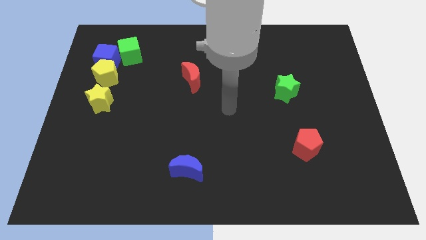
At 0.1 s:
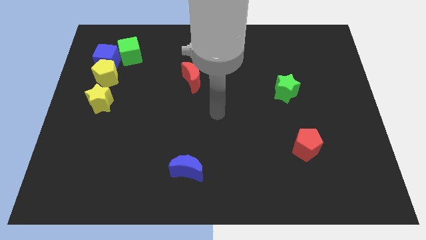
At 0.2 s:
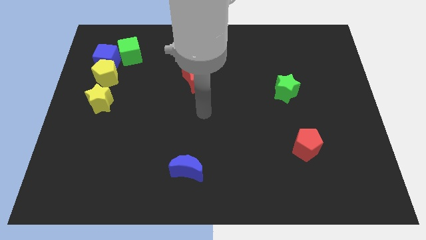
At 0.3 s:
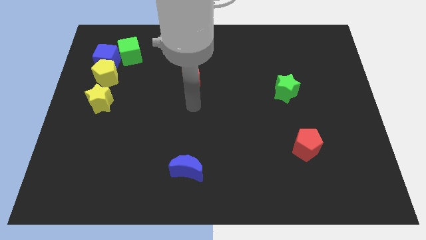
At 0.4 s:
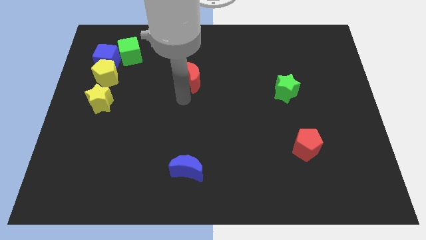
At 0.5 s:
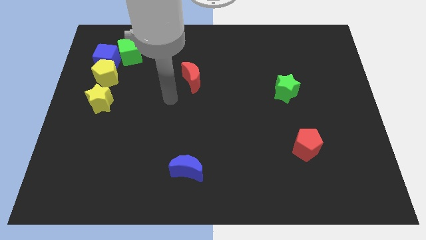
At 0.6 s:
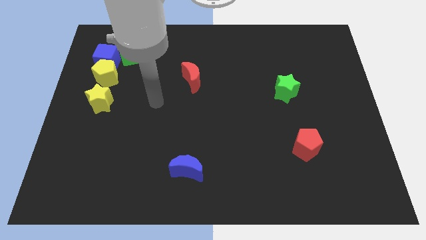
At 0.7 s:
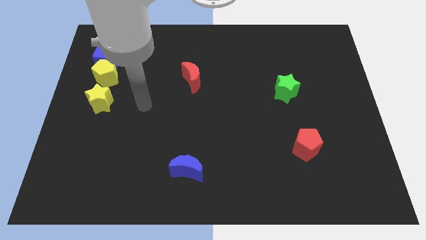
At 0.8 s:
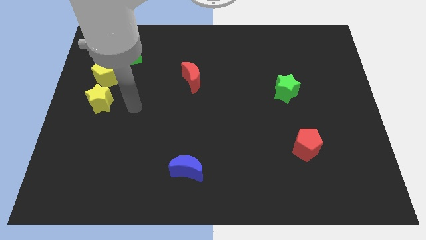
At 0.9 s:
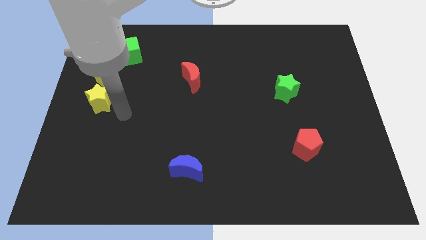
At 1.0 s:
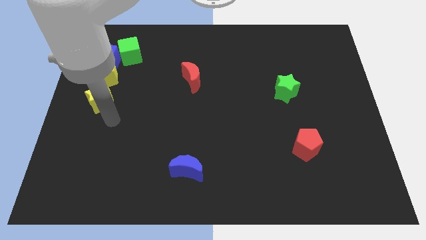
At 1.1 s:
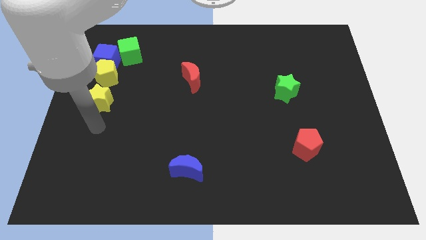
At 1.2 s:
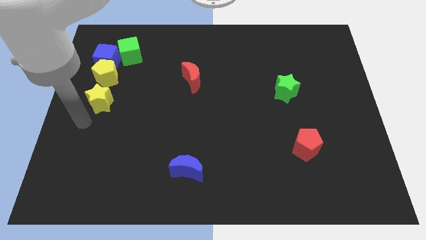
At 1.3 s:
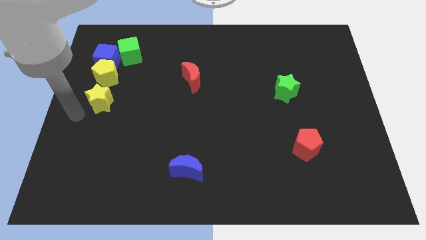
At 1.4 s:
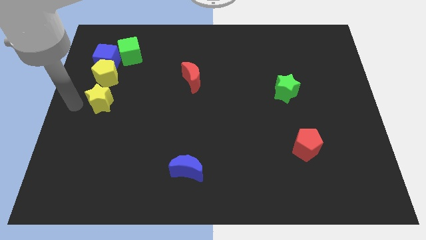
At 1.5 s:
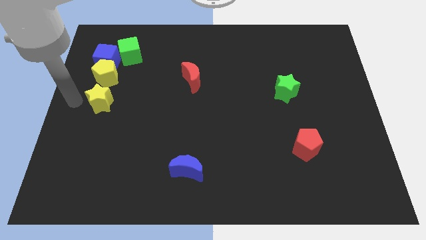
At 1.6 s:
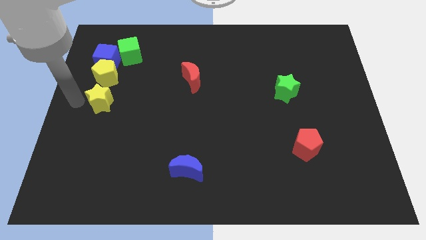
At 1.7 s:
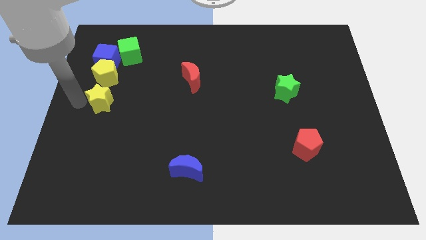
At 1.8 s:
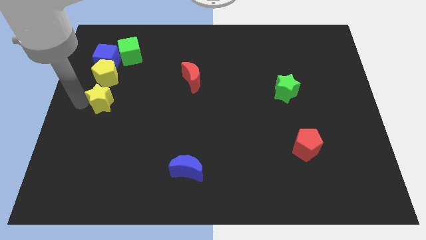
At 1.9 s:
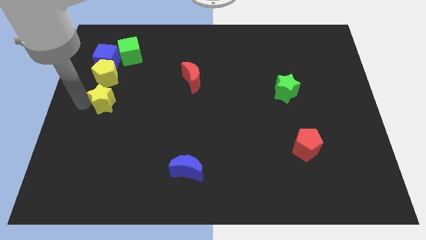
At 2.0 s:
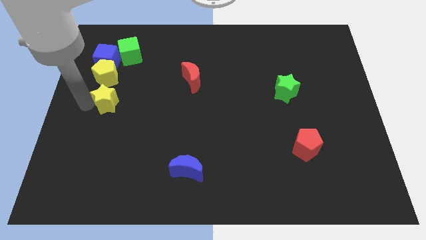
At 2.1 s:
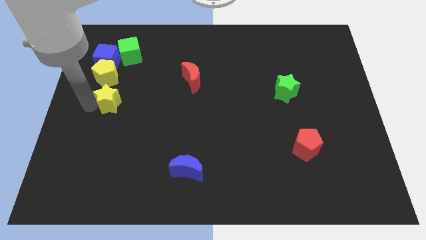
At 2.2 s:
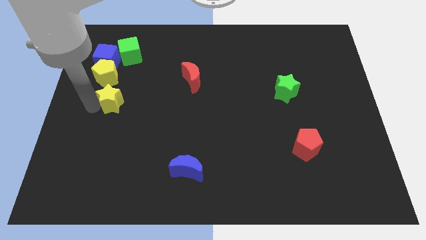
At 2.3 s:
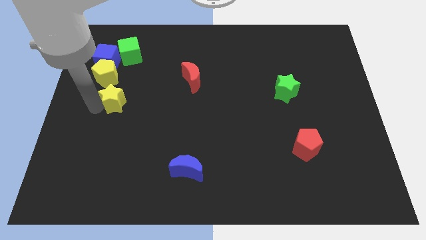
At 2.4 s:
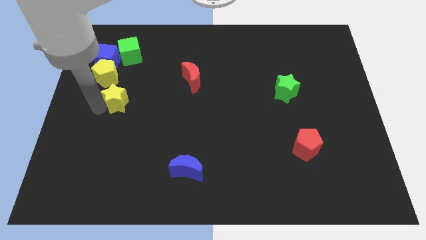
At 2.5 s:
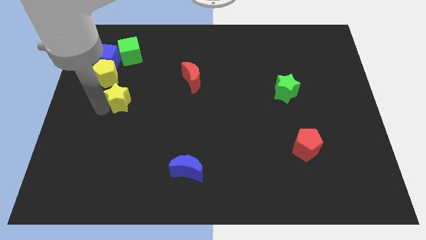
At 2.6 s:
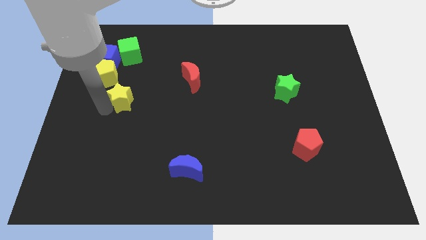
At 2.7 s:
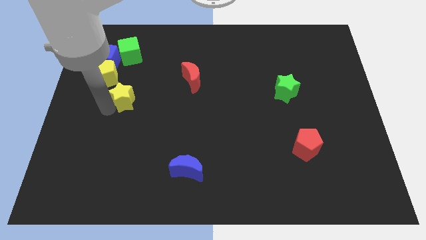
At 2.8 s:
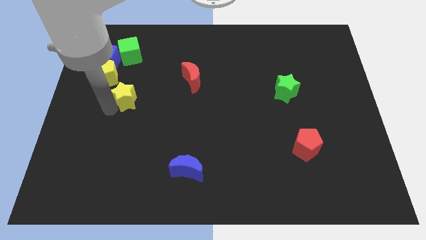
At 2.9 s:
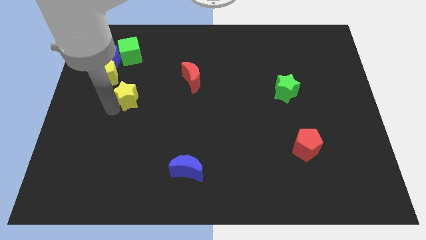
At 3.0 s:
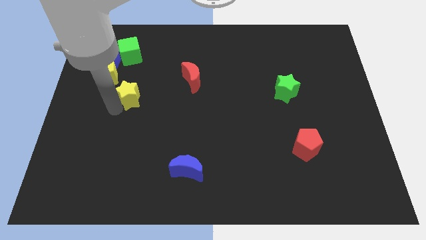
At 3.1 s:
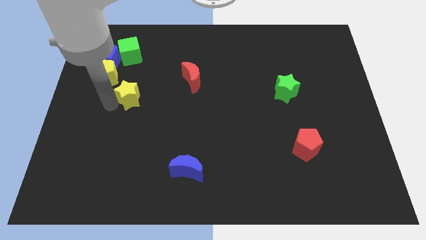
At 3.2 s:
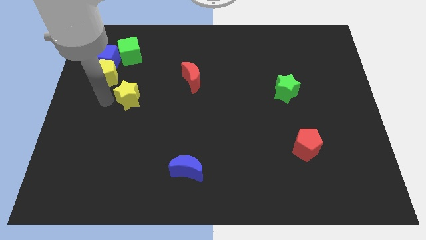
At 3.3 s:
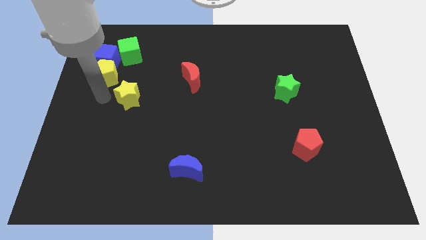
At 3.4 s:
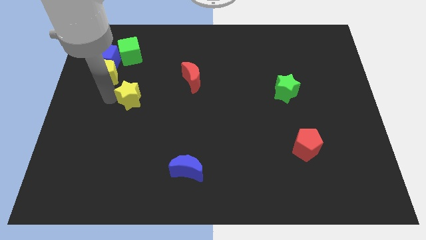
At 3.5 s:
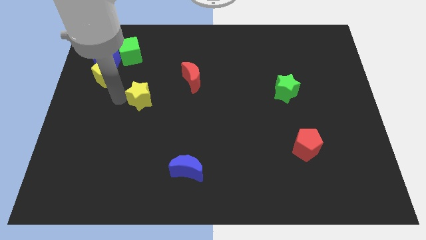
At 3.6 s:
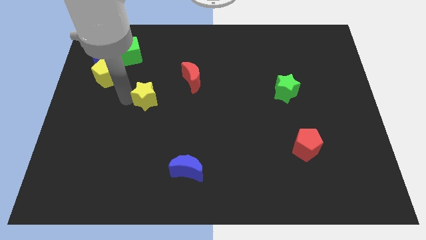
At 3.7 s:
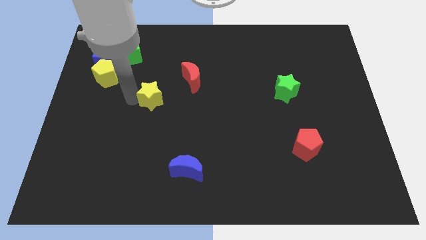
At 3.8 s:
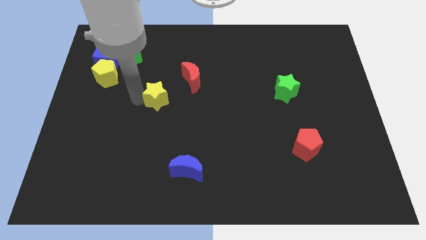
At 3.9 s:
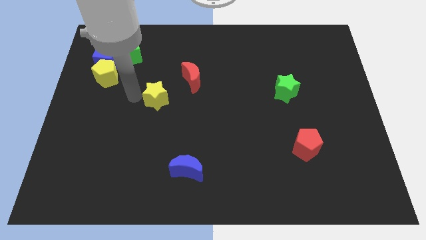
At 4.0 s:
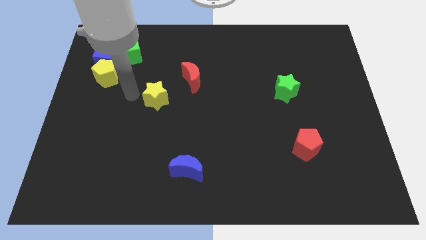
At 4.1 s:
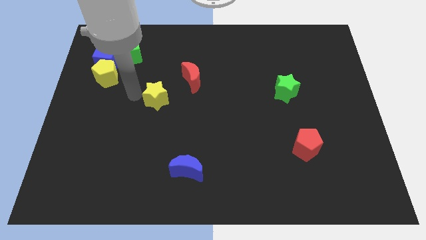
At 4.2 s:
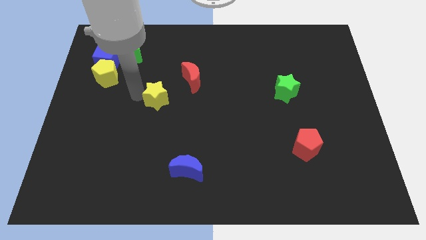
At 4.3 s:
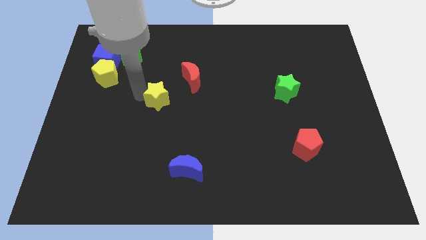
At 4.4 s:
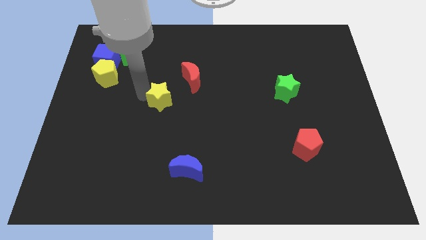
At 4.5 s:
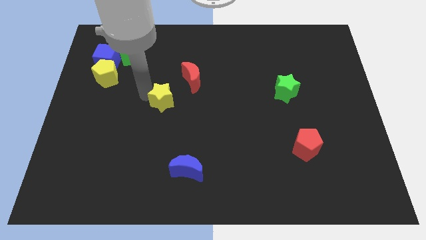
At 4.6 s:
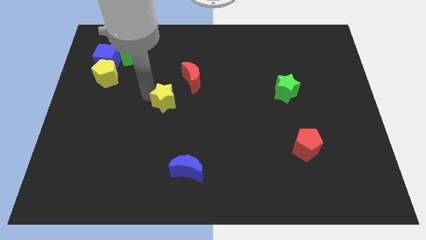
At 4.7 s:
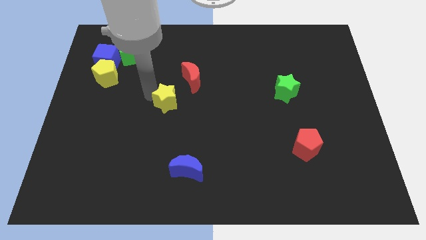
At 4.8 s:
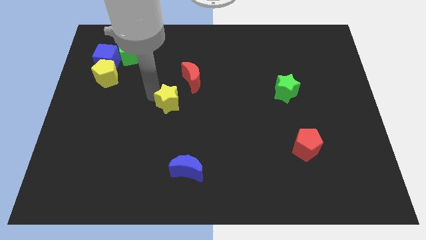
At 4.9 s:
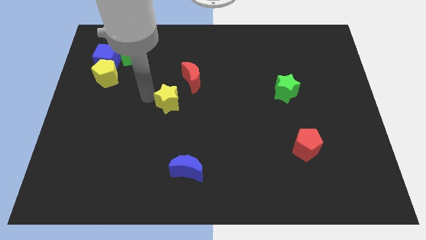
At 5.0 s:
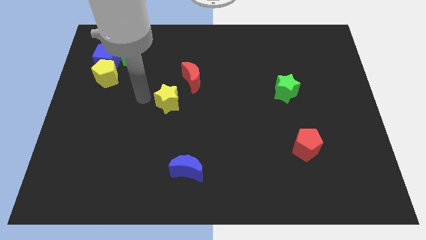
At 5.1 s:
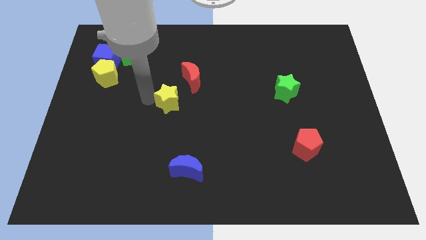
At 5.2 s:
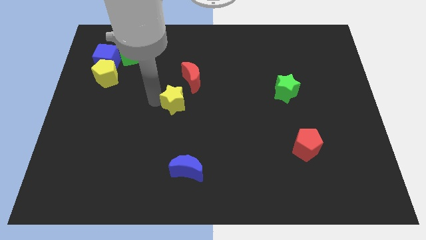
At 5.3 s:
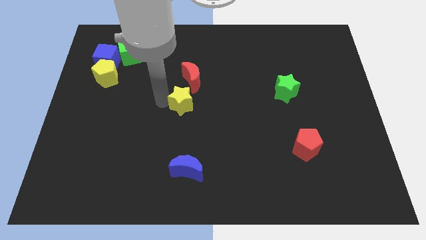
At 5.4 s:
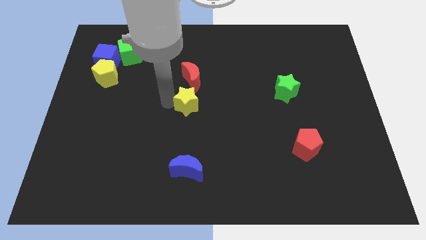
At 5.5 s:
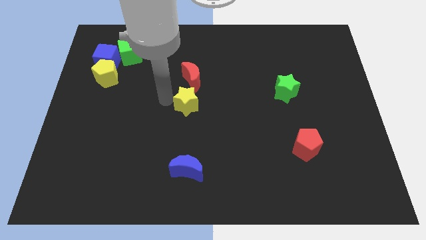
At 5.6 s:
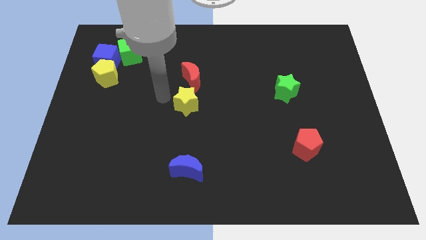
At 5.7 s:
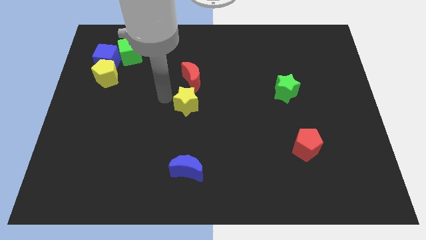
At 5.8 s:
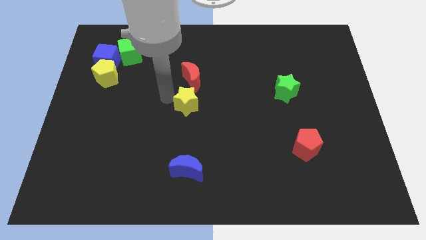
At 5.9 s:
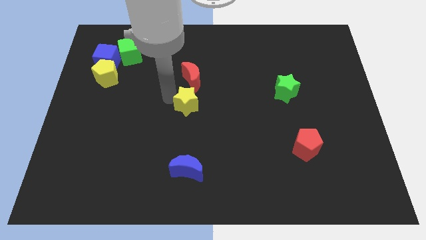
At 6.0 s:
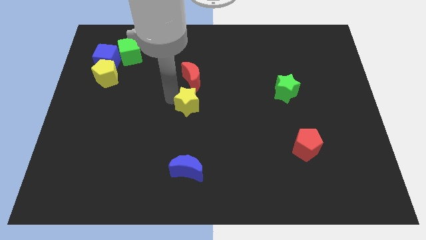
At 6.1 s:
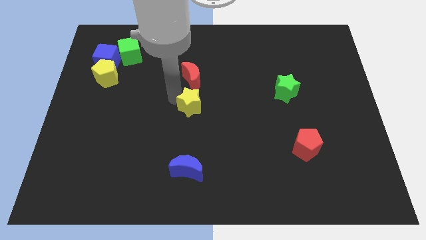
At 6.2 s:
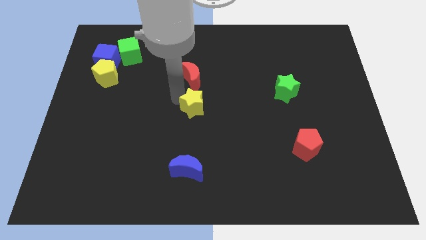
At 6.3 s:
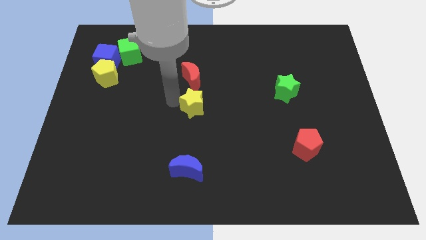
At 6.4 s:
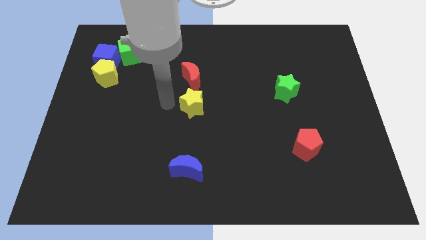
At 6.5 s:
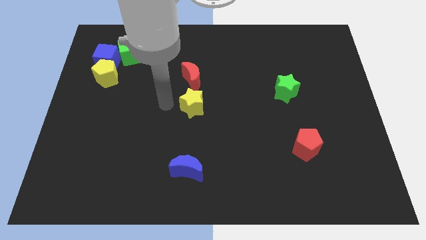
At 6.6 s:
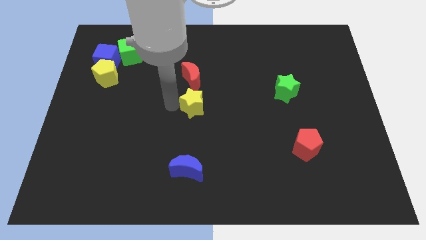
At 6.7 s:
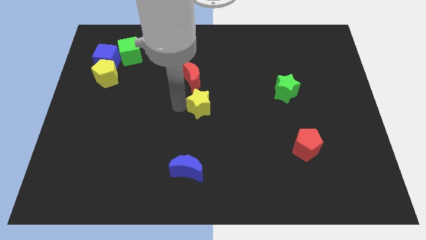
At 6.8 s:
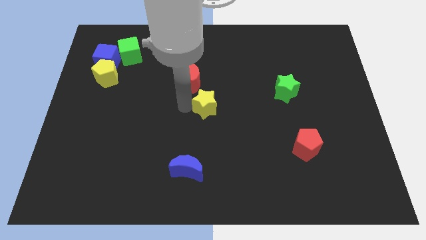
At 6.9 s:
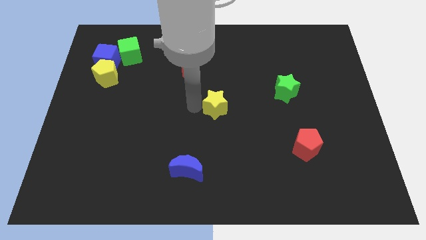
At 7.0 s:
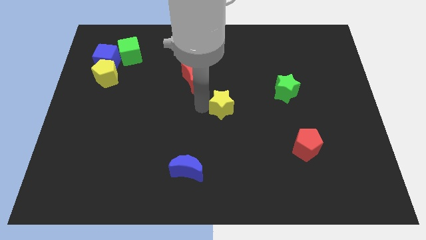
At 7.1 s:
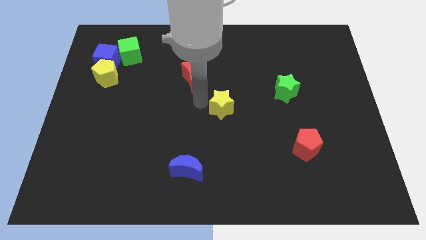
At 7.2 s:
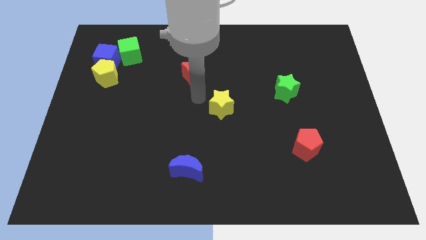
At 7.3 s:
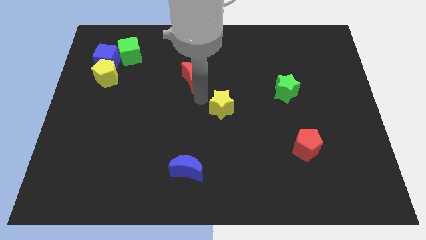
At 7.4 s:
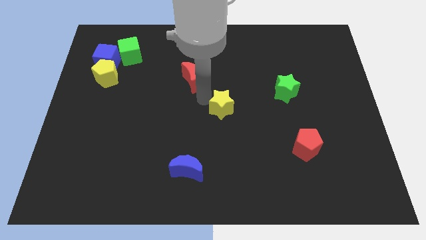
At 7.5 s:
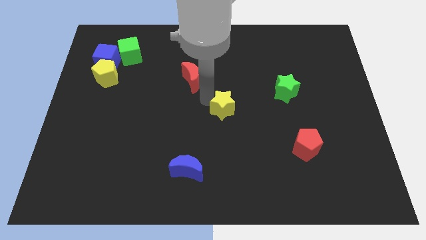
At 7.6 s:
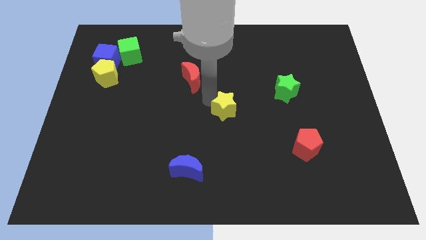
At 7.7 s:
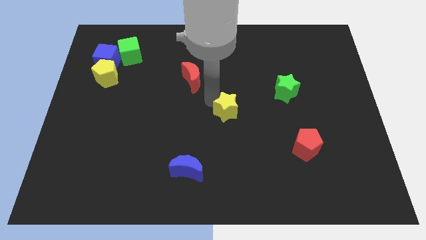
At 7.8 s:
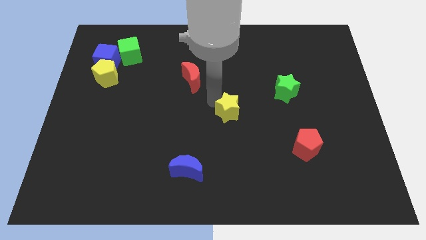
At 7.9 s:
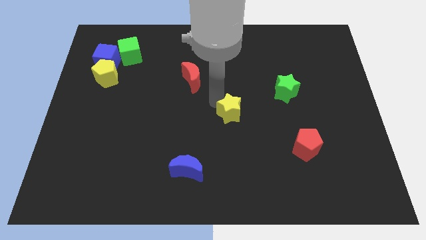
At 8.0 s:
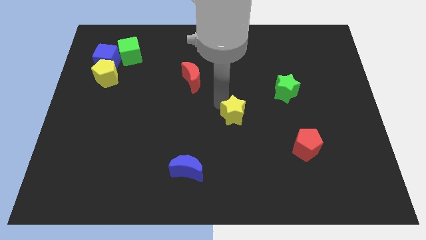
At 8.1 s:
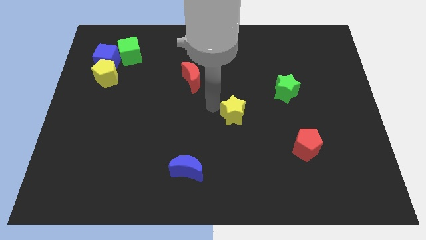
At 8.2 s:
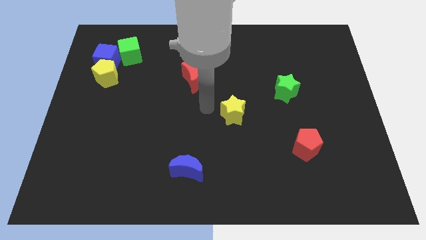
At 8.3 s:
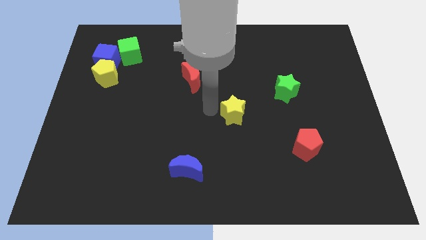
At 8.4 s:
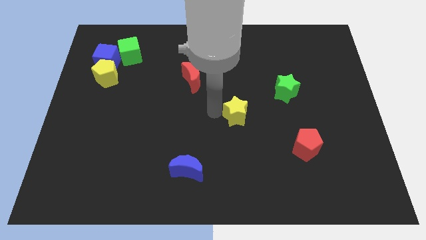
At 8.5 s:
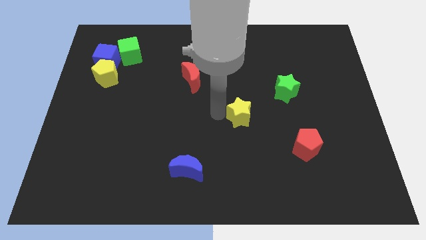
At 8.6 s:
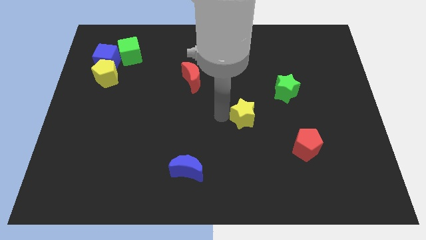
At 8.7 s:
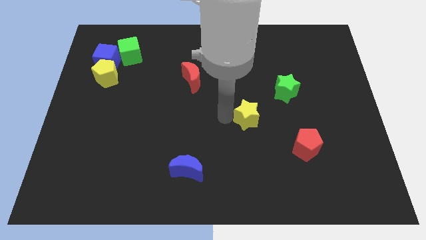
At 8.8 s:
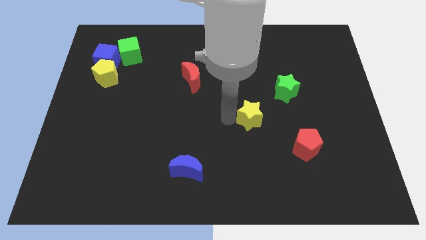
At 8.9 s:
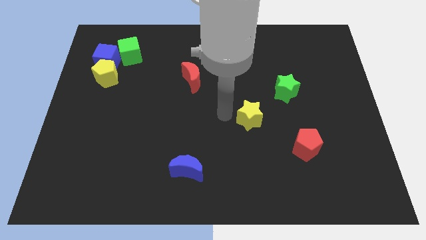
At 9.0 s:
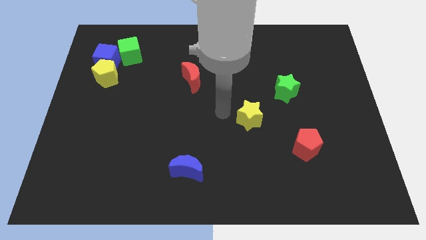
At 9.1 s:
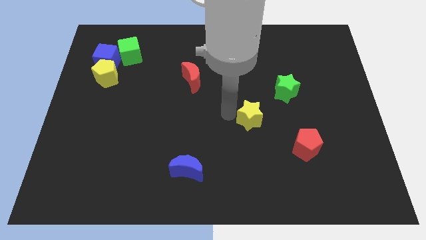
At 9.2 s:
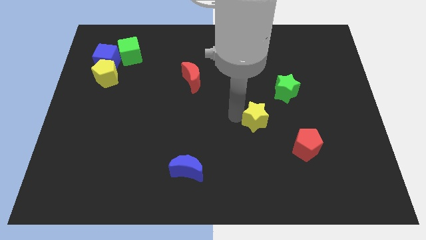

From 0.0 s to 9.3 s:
put the yellow star to the top left side of the red pentagon
